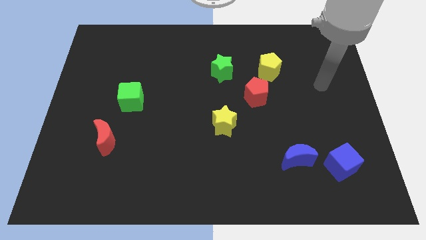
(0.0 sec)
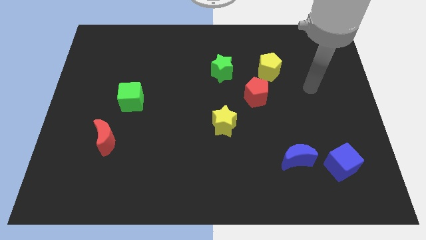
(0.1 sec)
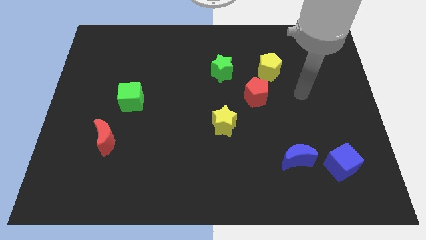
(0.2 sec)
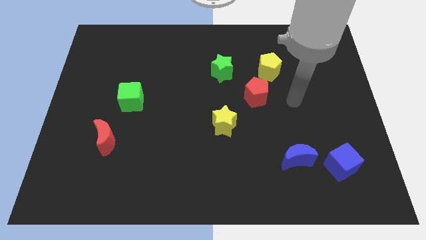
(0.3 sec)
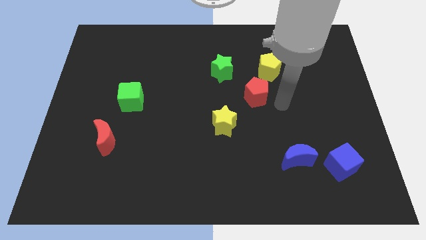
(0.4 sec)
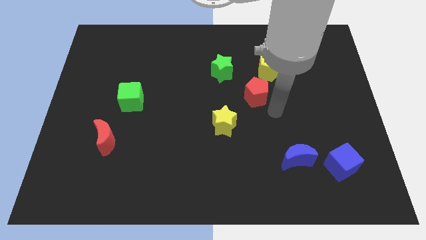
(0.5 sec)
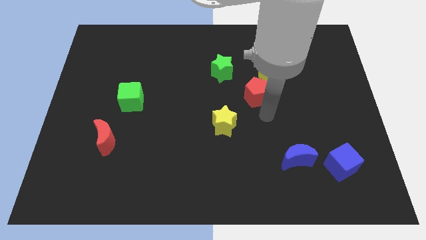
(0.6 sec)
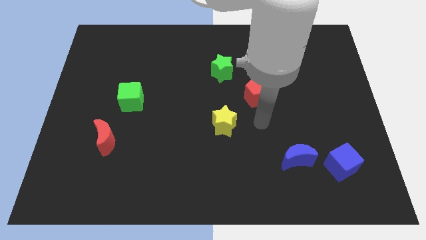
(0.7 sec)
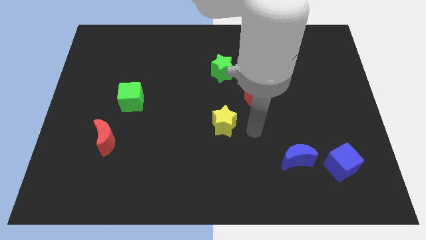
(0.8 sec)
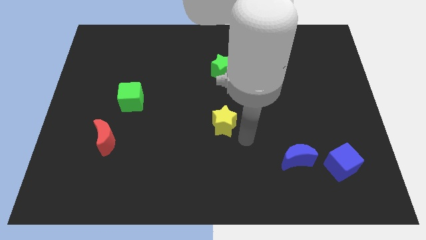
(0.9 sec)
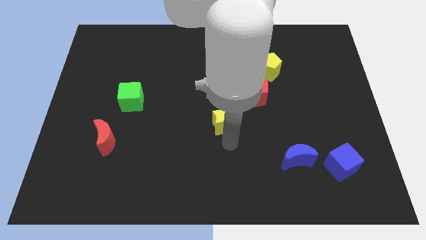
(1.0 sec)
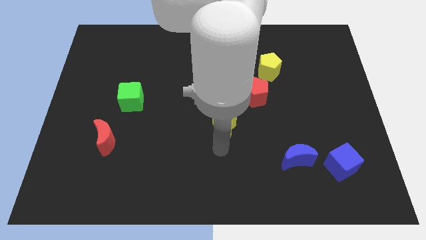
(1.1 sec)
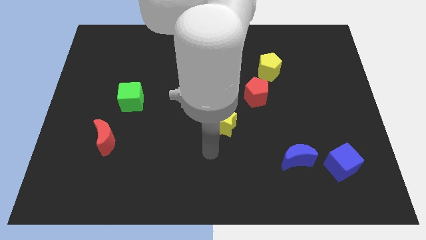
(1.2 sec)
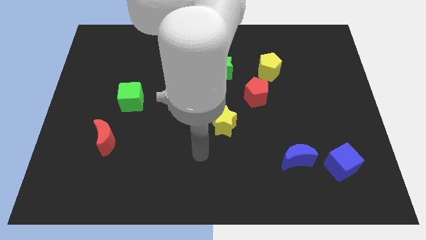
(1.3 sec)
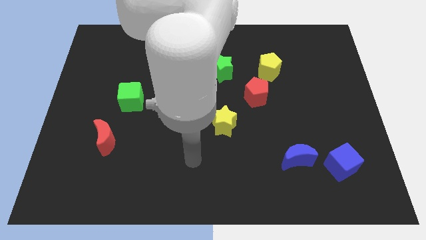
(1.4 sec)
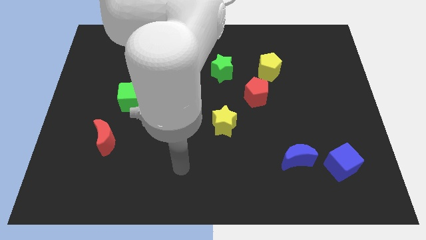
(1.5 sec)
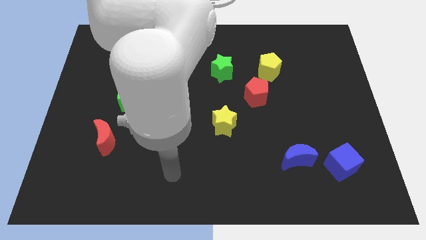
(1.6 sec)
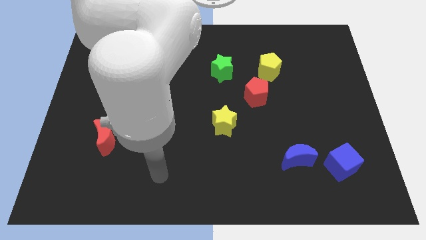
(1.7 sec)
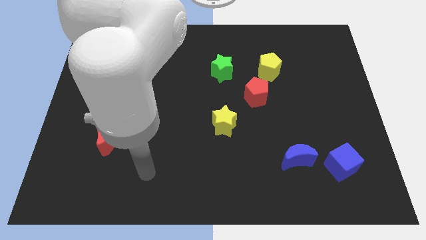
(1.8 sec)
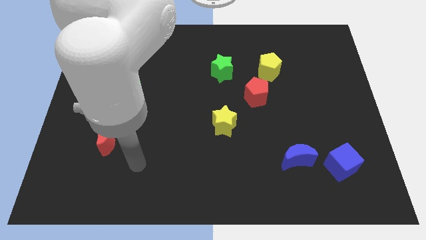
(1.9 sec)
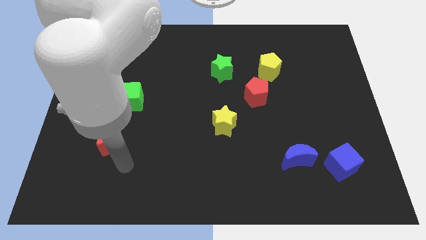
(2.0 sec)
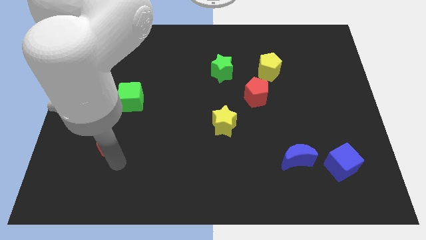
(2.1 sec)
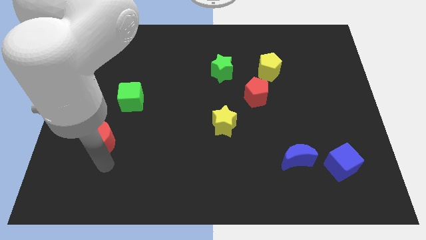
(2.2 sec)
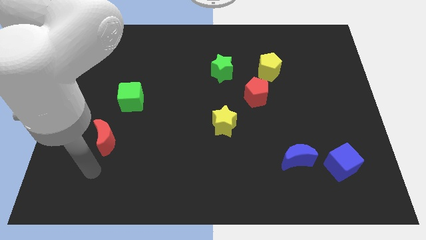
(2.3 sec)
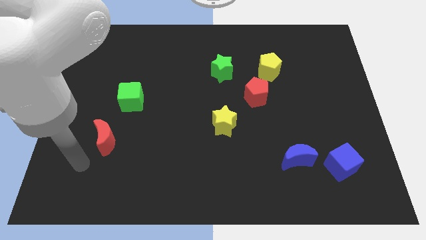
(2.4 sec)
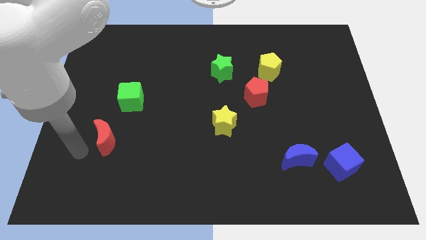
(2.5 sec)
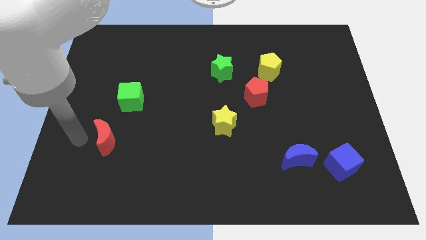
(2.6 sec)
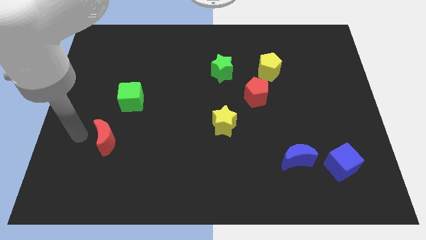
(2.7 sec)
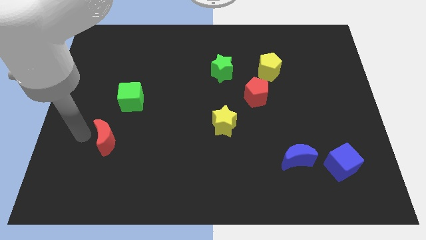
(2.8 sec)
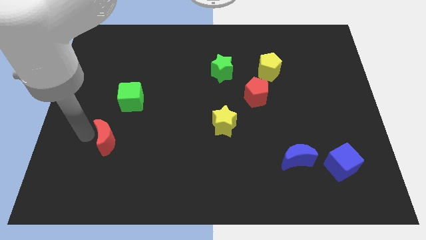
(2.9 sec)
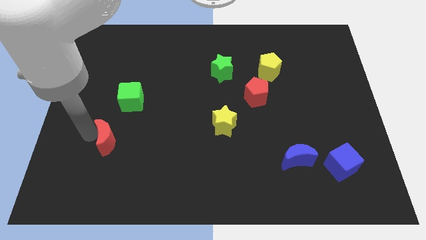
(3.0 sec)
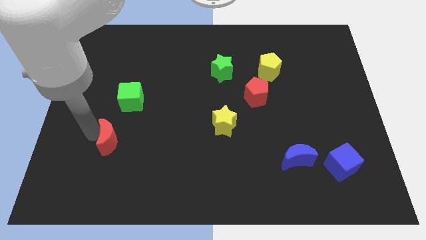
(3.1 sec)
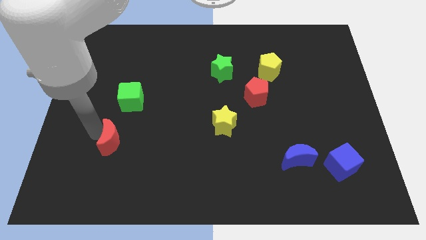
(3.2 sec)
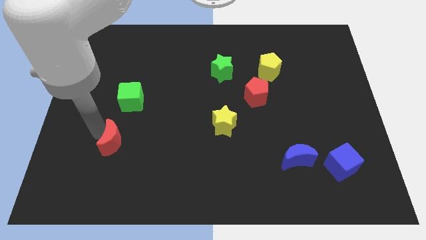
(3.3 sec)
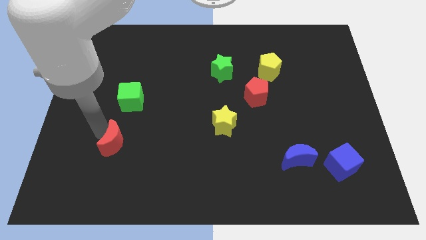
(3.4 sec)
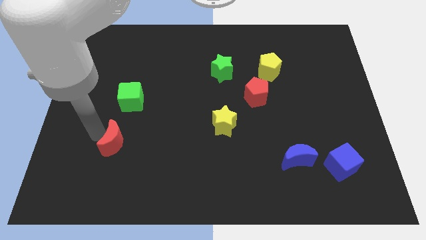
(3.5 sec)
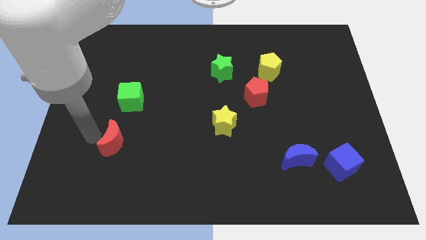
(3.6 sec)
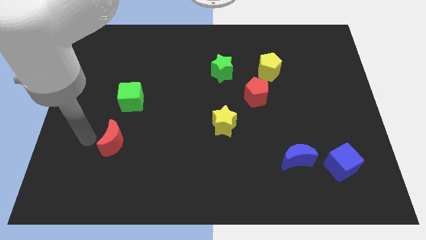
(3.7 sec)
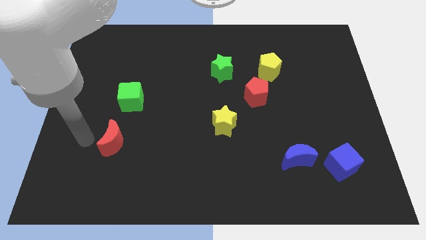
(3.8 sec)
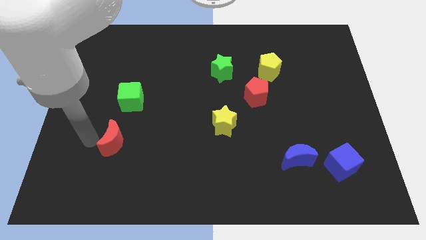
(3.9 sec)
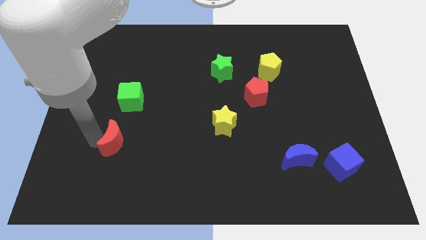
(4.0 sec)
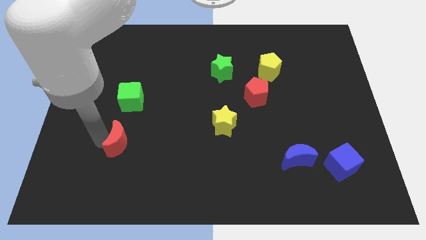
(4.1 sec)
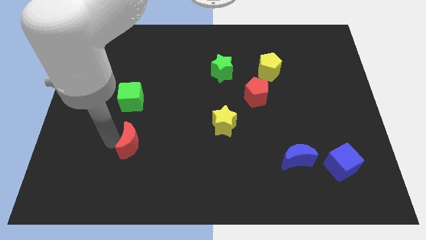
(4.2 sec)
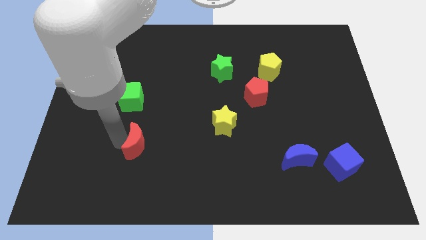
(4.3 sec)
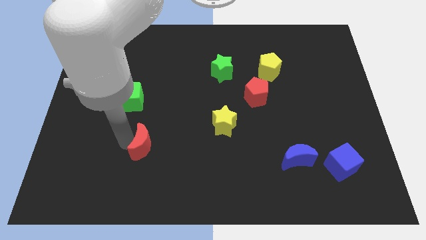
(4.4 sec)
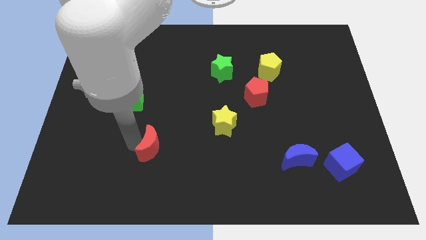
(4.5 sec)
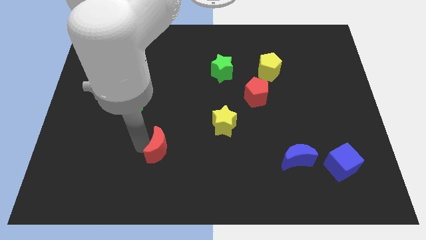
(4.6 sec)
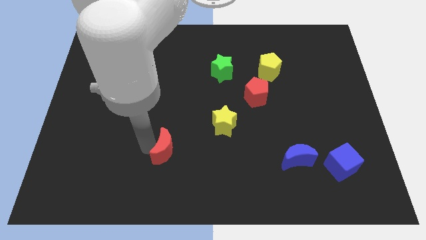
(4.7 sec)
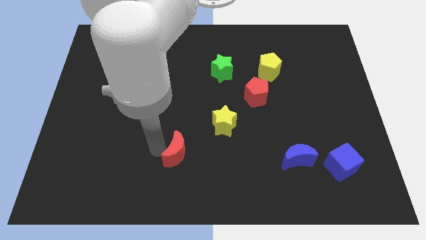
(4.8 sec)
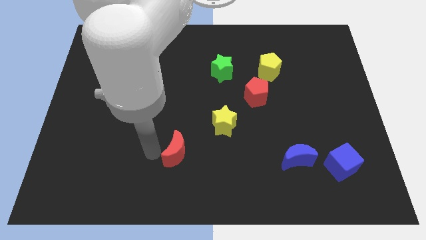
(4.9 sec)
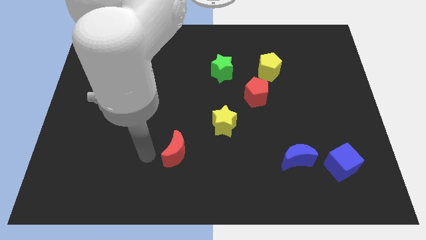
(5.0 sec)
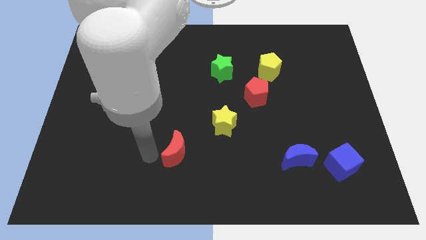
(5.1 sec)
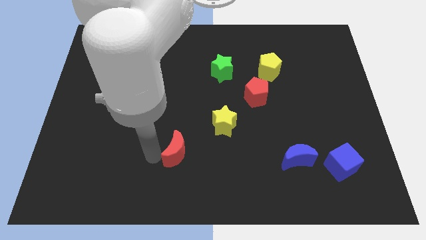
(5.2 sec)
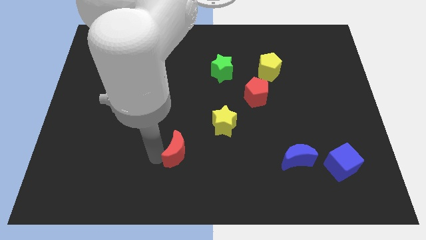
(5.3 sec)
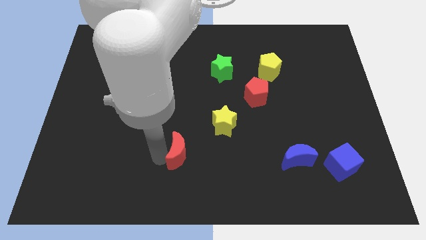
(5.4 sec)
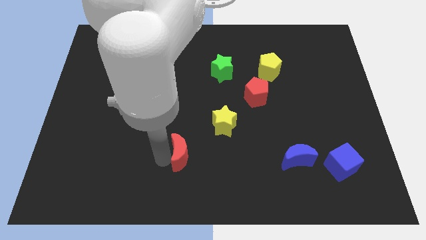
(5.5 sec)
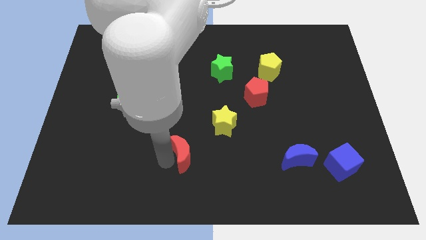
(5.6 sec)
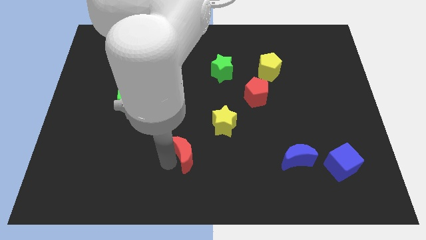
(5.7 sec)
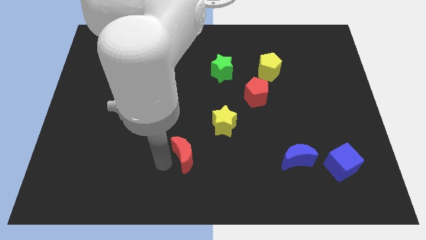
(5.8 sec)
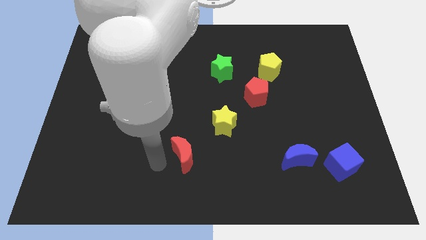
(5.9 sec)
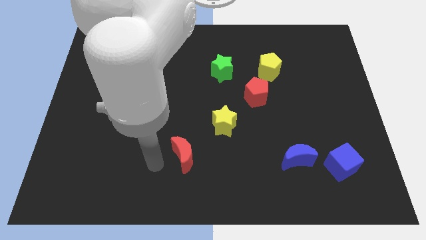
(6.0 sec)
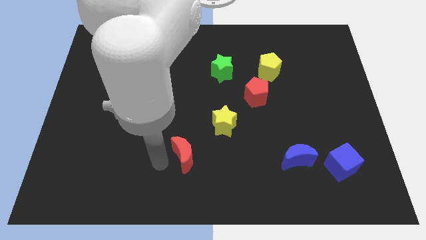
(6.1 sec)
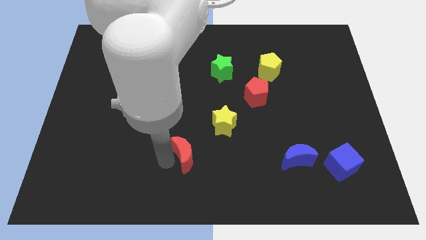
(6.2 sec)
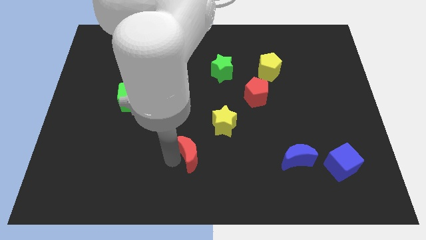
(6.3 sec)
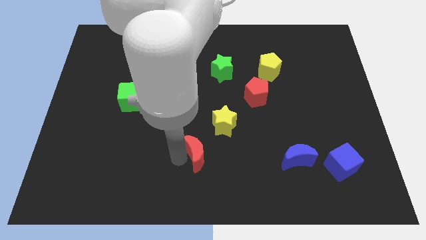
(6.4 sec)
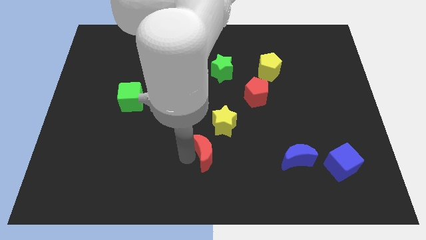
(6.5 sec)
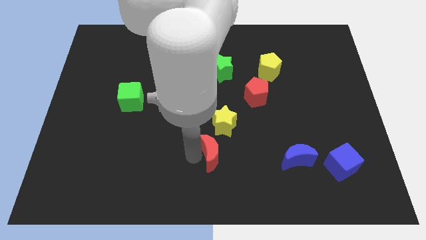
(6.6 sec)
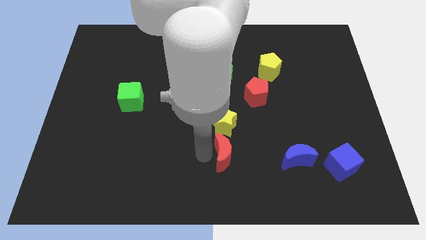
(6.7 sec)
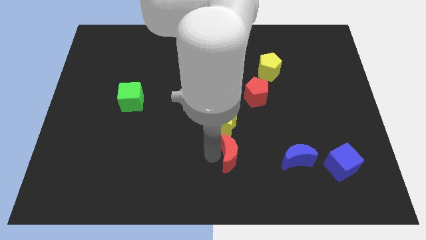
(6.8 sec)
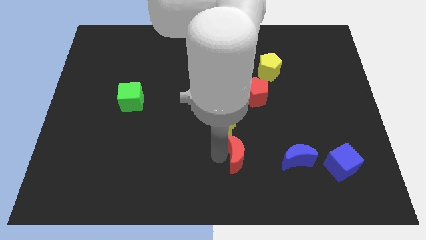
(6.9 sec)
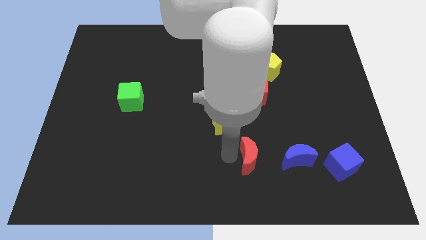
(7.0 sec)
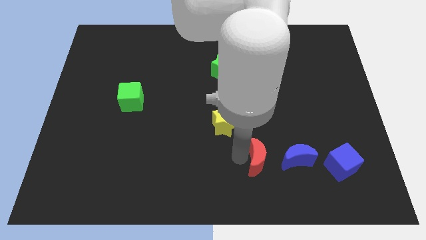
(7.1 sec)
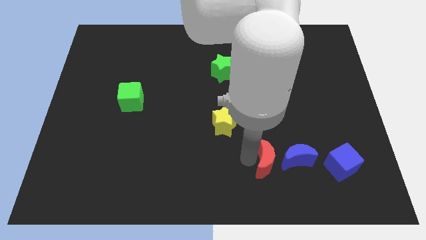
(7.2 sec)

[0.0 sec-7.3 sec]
move the red moon left of the blue cube

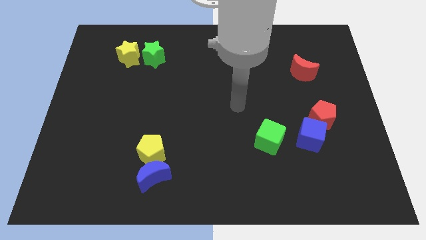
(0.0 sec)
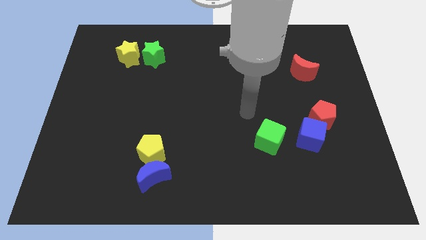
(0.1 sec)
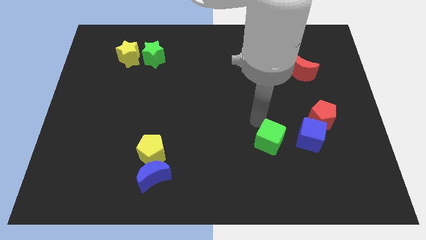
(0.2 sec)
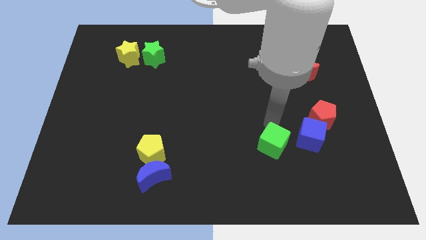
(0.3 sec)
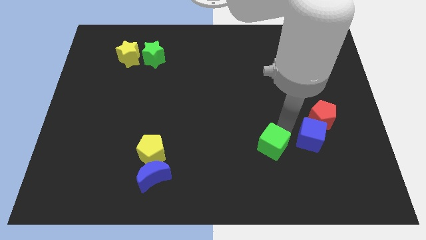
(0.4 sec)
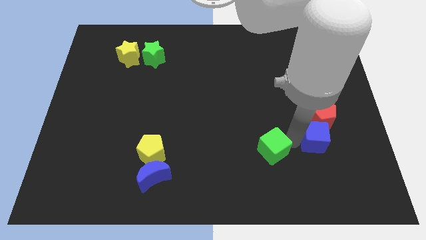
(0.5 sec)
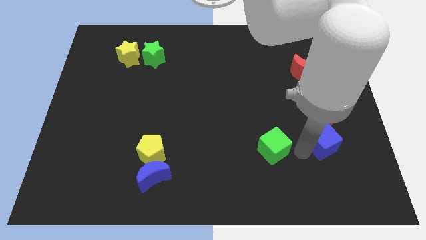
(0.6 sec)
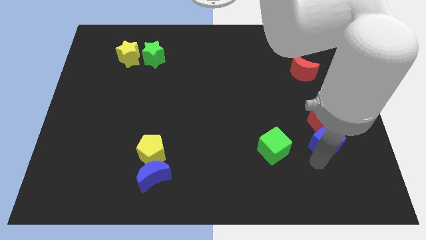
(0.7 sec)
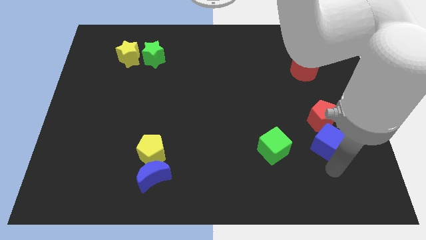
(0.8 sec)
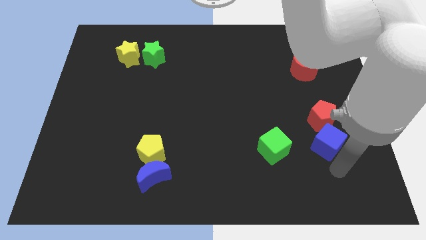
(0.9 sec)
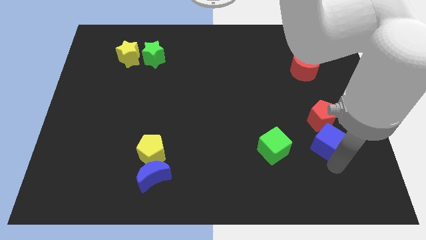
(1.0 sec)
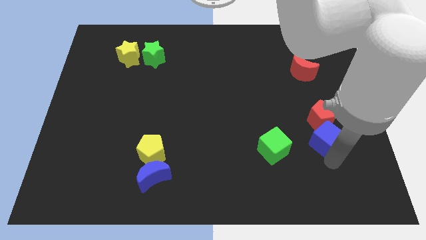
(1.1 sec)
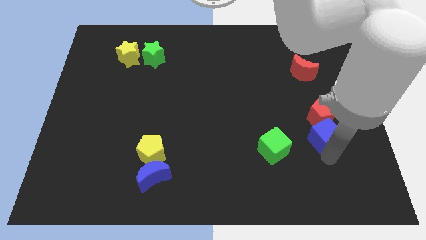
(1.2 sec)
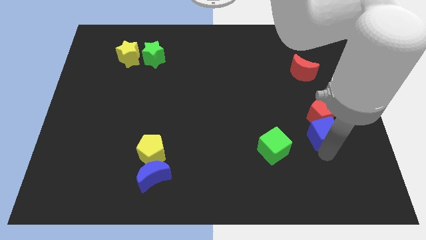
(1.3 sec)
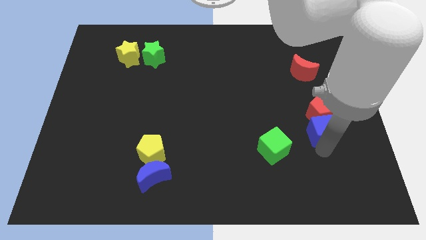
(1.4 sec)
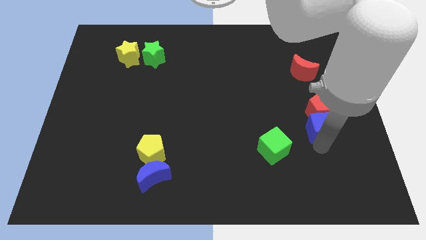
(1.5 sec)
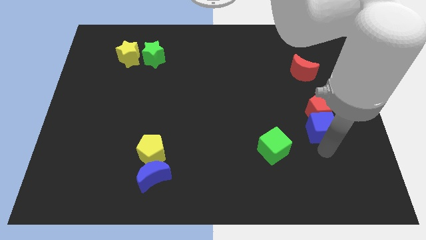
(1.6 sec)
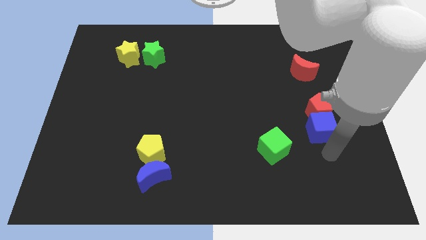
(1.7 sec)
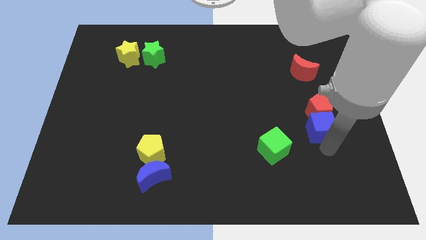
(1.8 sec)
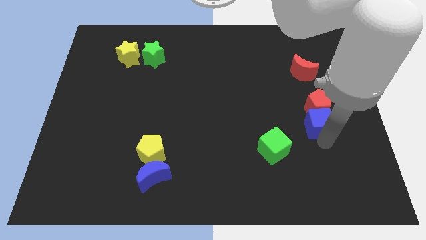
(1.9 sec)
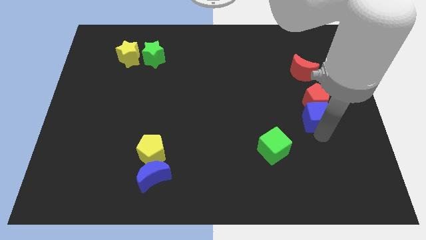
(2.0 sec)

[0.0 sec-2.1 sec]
move the blue cube to the bottom of the red moon
